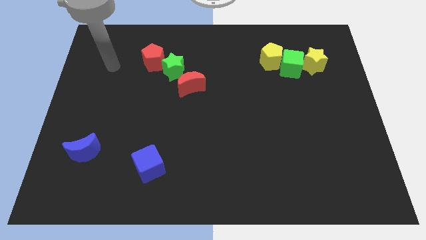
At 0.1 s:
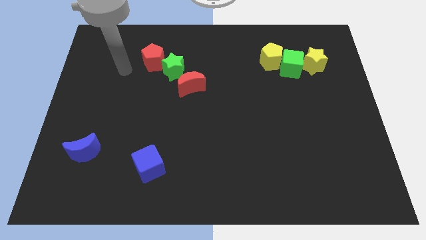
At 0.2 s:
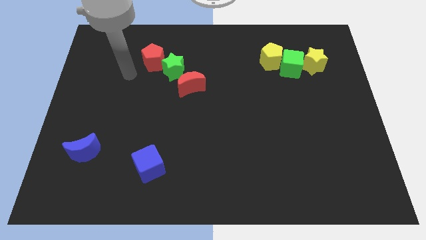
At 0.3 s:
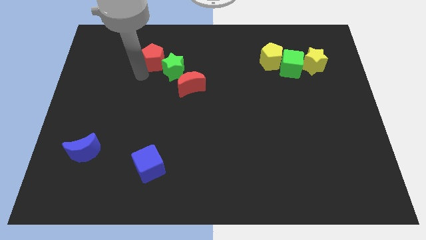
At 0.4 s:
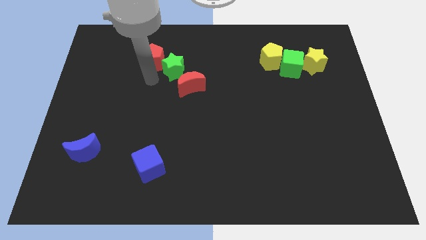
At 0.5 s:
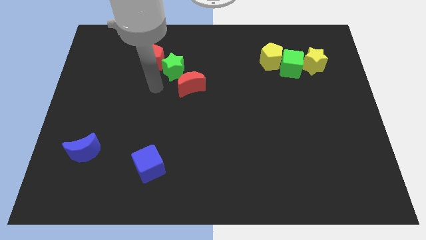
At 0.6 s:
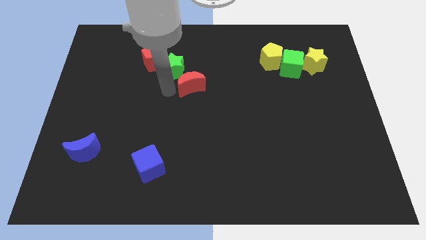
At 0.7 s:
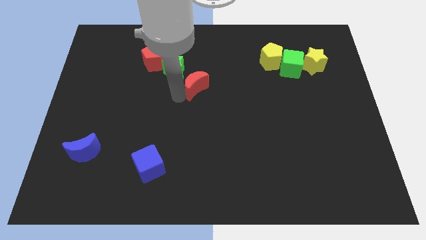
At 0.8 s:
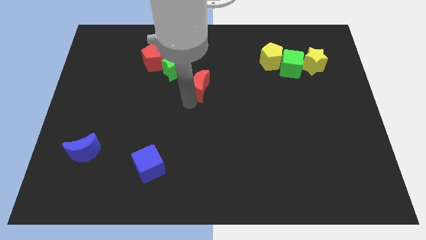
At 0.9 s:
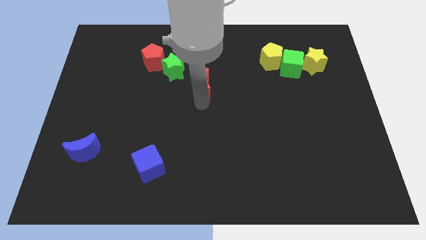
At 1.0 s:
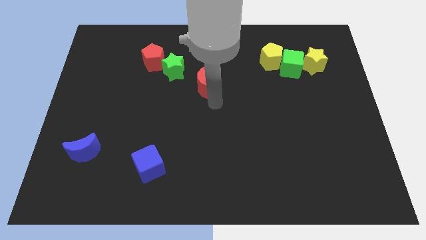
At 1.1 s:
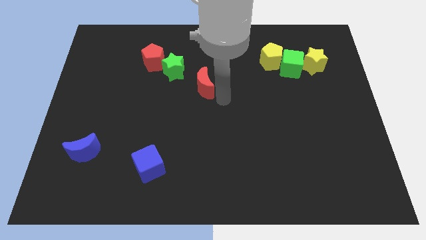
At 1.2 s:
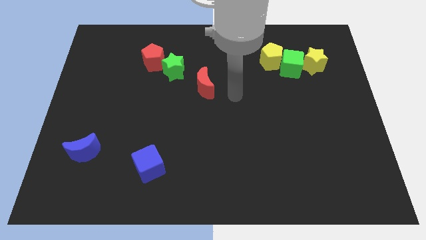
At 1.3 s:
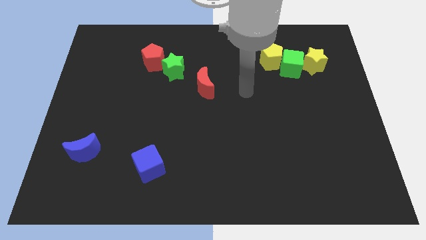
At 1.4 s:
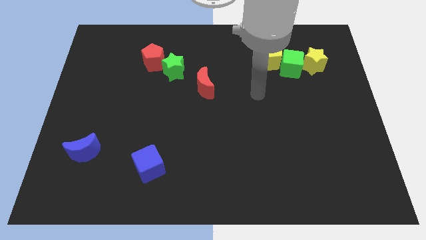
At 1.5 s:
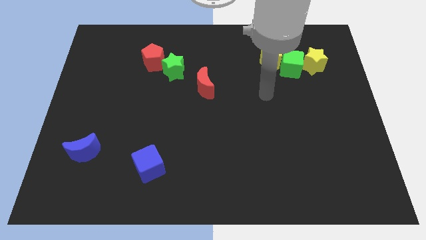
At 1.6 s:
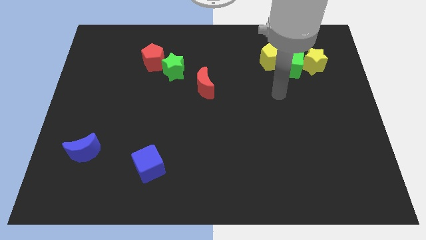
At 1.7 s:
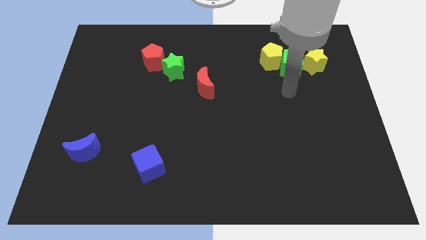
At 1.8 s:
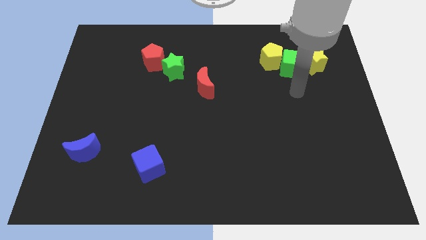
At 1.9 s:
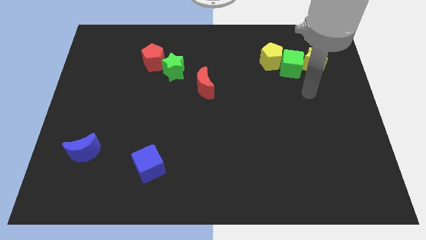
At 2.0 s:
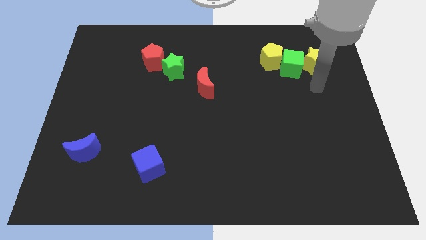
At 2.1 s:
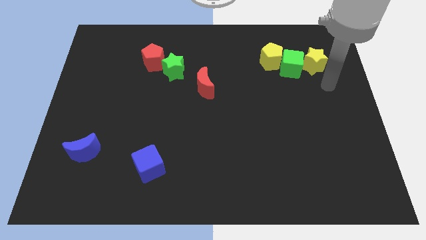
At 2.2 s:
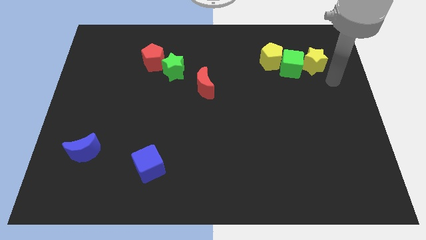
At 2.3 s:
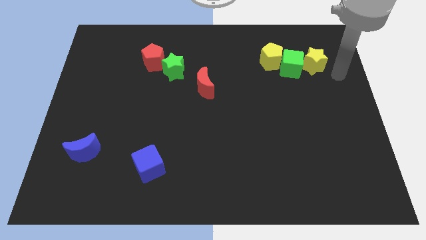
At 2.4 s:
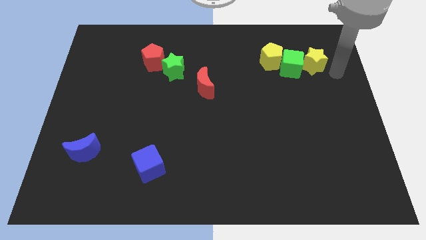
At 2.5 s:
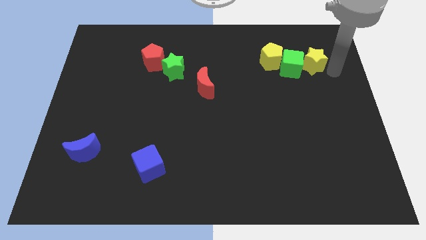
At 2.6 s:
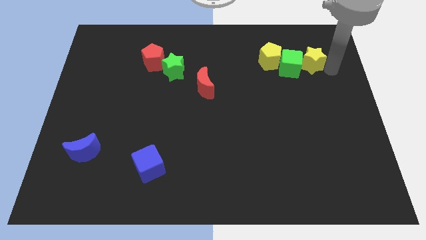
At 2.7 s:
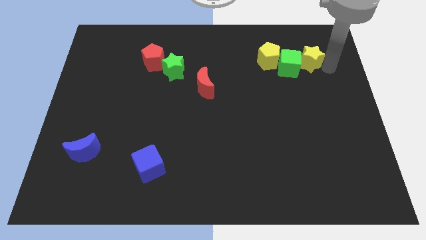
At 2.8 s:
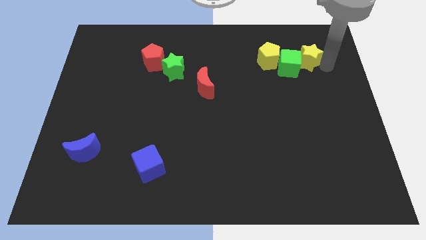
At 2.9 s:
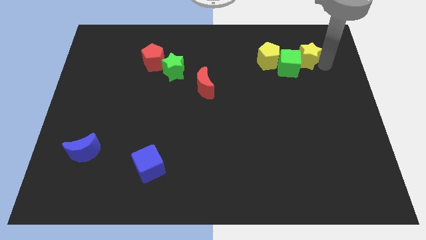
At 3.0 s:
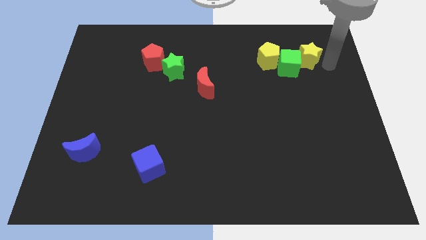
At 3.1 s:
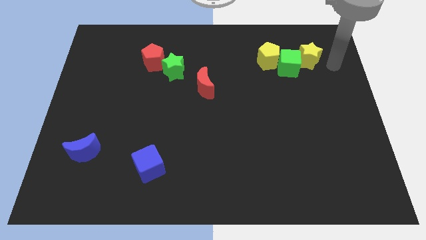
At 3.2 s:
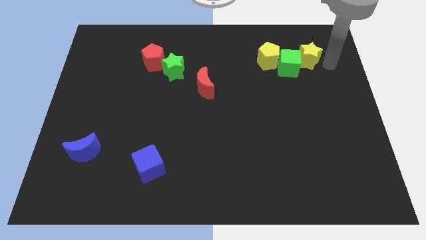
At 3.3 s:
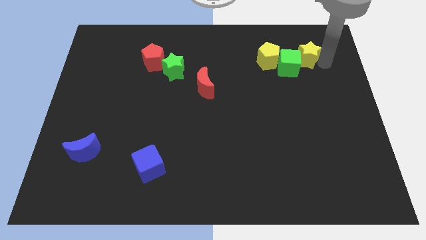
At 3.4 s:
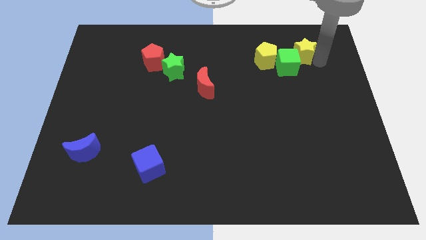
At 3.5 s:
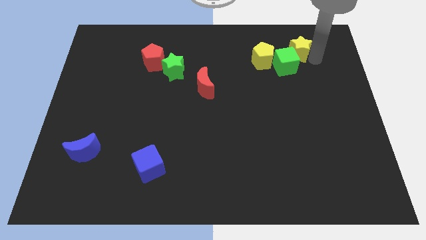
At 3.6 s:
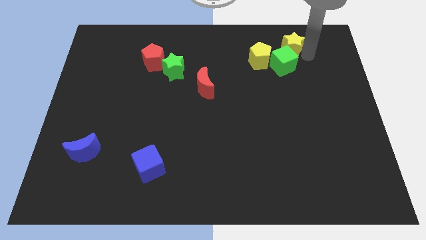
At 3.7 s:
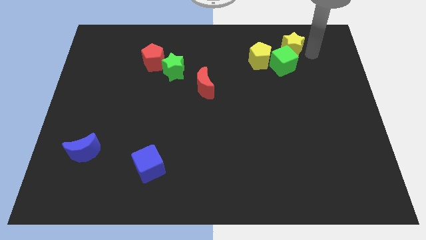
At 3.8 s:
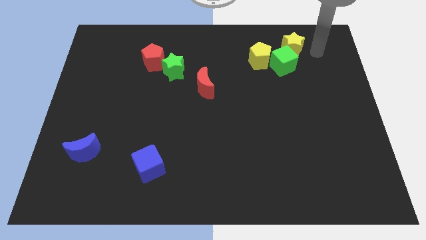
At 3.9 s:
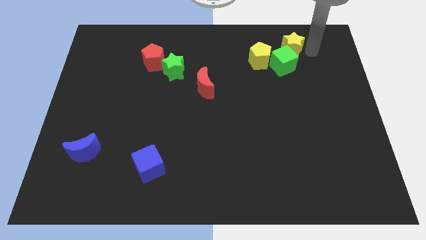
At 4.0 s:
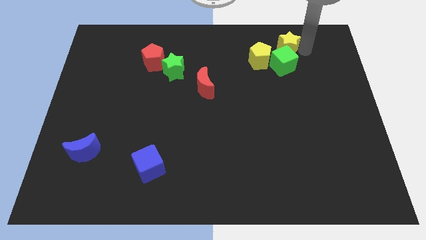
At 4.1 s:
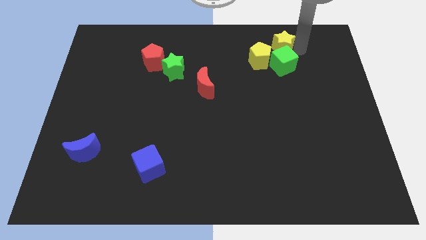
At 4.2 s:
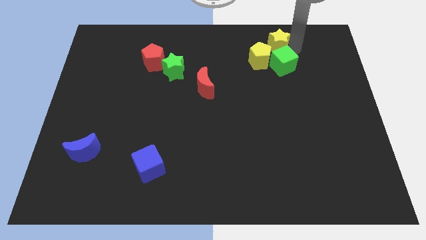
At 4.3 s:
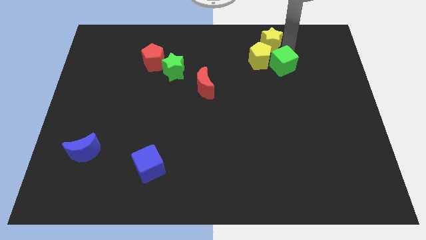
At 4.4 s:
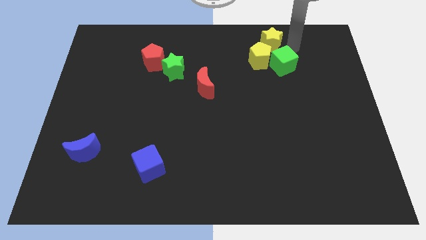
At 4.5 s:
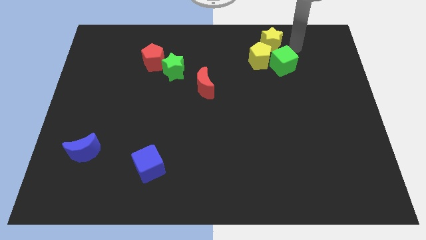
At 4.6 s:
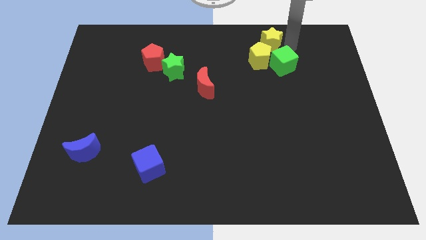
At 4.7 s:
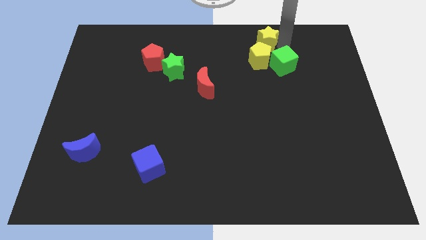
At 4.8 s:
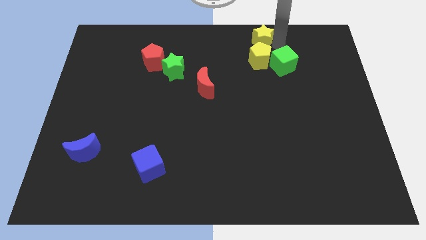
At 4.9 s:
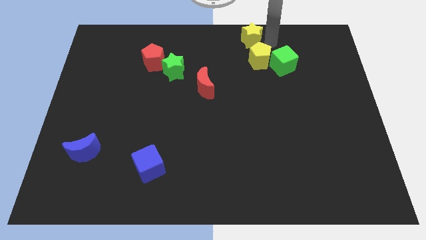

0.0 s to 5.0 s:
push the yellow star to the top

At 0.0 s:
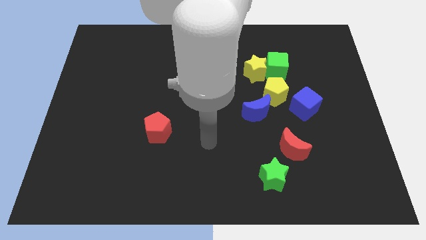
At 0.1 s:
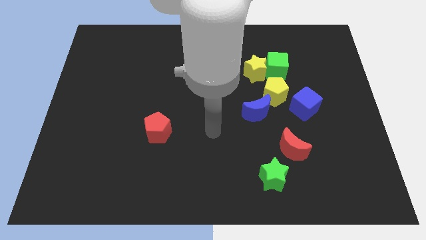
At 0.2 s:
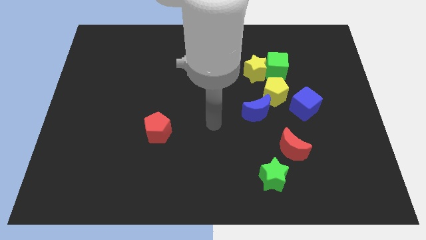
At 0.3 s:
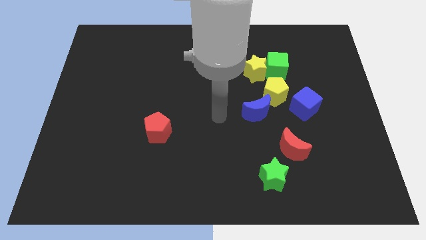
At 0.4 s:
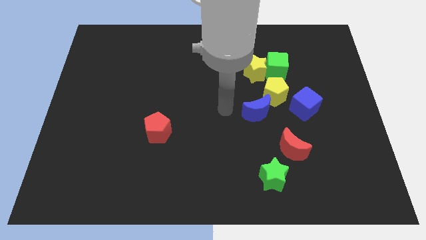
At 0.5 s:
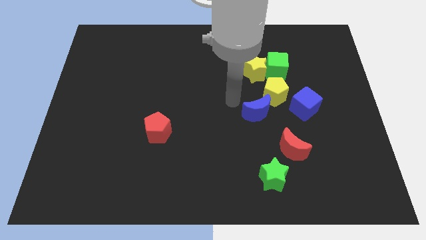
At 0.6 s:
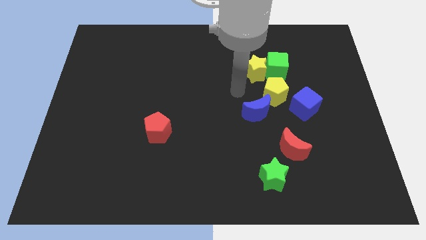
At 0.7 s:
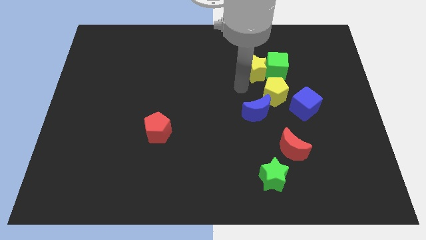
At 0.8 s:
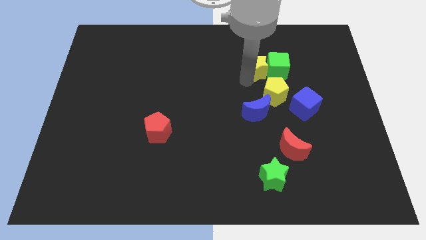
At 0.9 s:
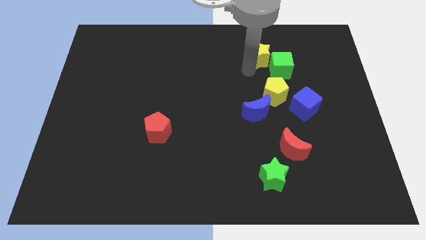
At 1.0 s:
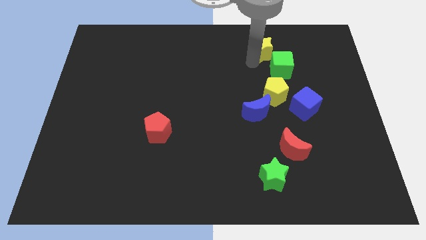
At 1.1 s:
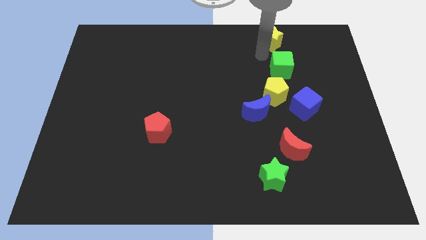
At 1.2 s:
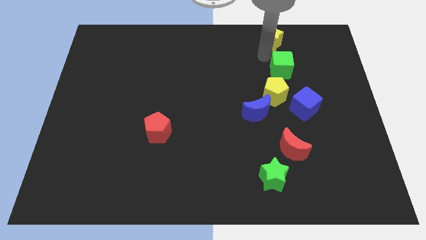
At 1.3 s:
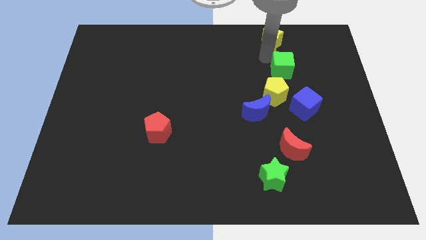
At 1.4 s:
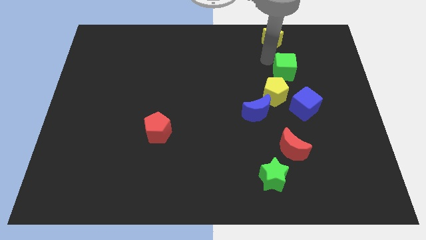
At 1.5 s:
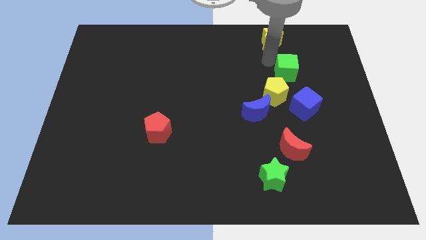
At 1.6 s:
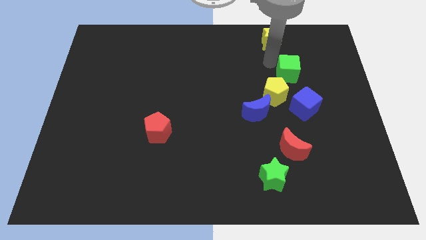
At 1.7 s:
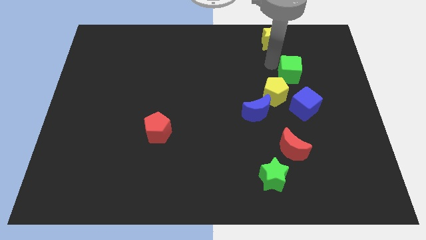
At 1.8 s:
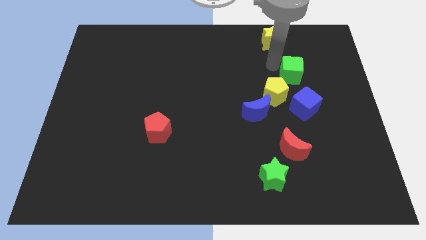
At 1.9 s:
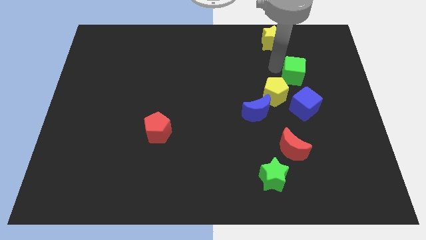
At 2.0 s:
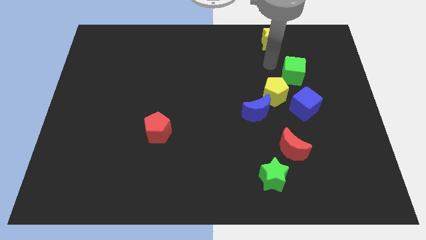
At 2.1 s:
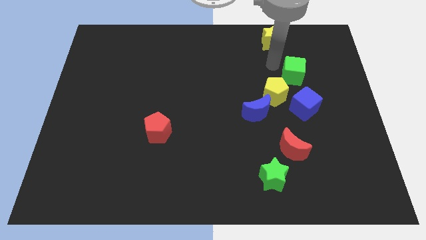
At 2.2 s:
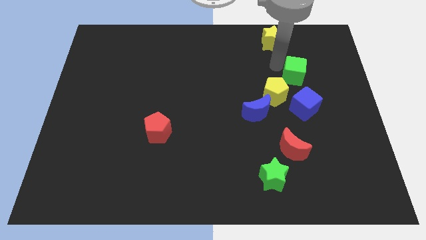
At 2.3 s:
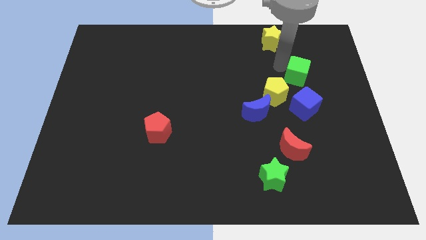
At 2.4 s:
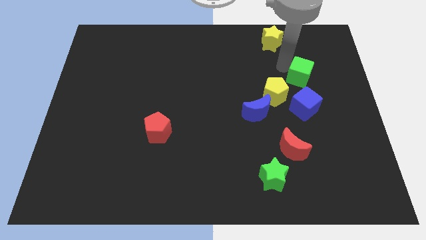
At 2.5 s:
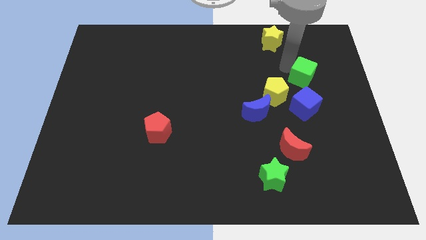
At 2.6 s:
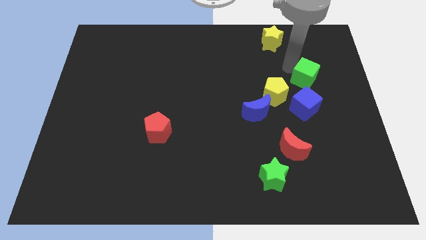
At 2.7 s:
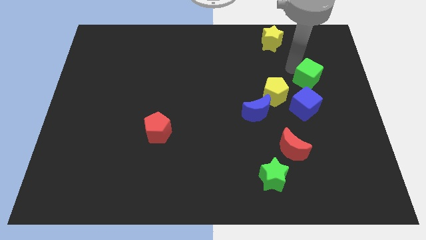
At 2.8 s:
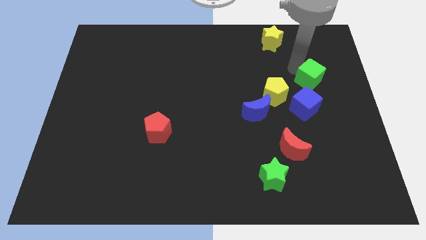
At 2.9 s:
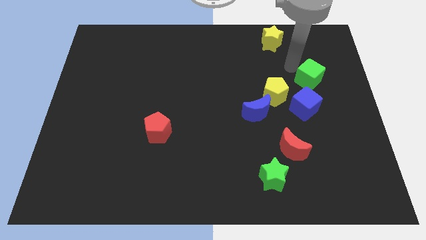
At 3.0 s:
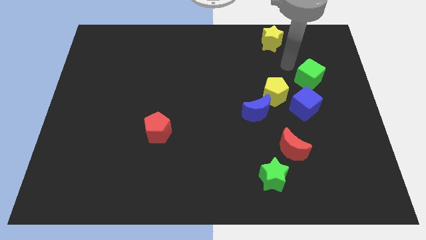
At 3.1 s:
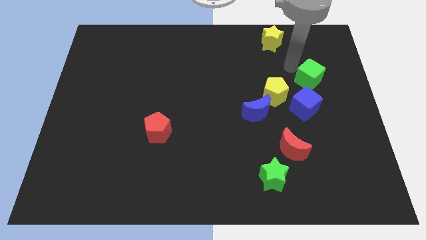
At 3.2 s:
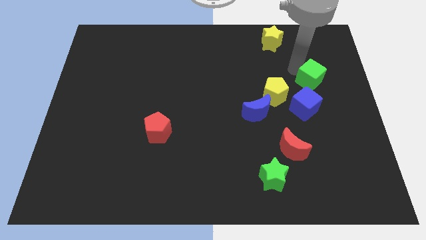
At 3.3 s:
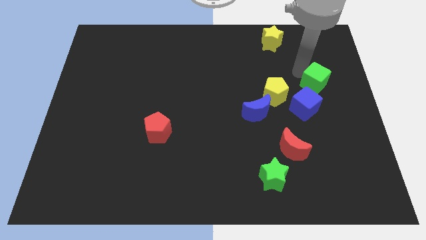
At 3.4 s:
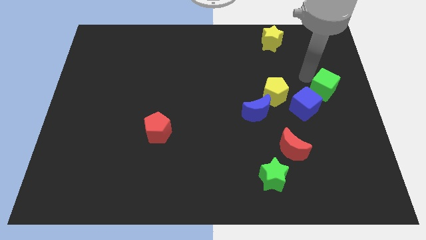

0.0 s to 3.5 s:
put the green cube to the right side of the board
